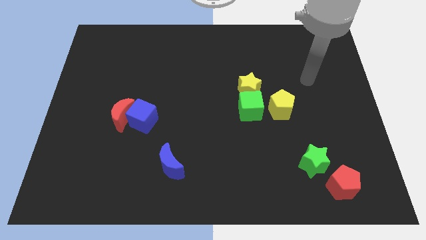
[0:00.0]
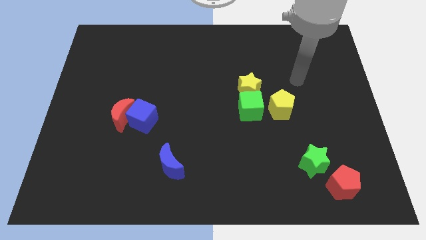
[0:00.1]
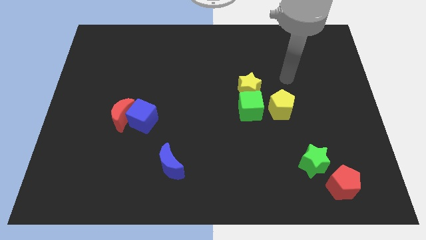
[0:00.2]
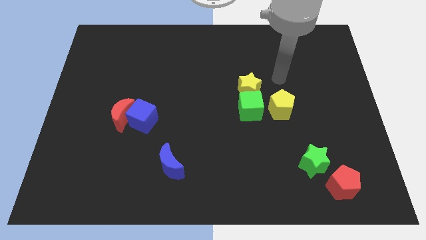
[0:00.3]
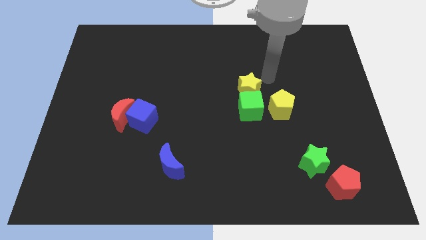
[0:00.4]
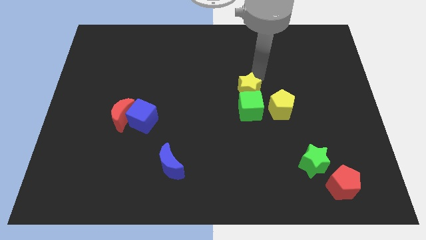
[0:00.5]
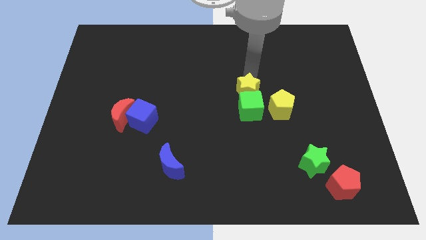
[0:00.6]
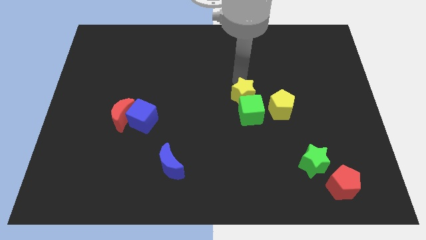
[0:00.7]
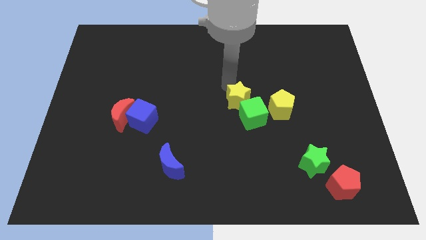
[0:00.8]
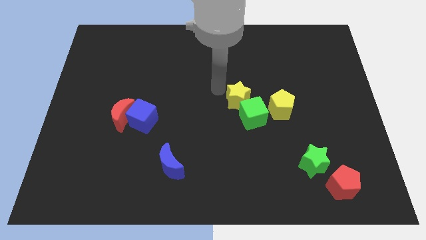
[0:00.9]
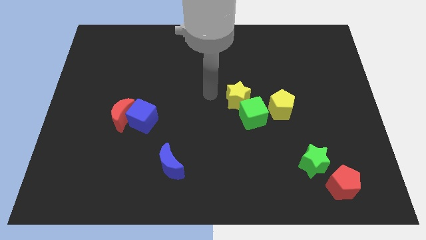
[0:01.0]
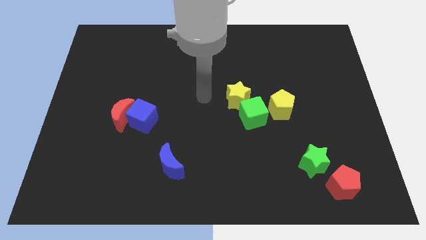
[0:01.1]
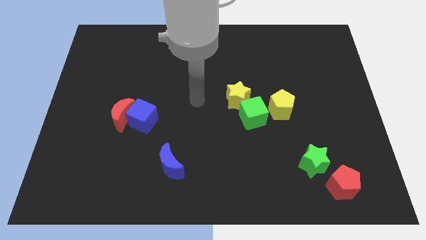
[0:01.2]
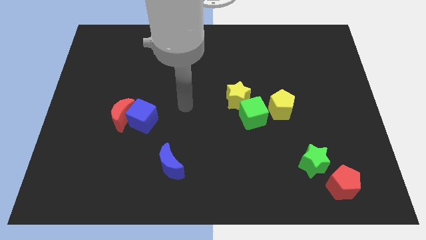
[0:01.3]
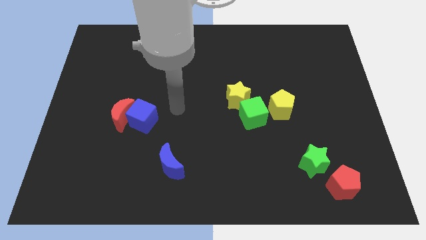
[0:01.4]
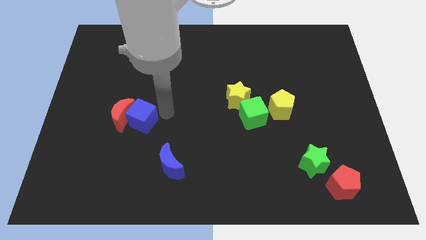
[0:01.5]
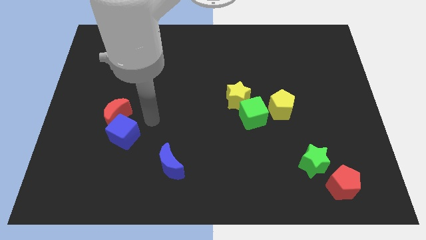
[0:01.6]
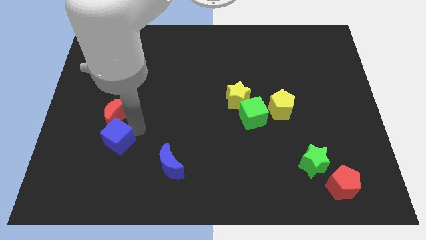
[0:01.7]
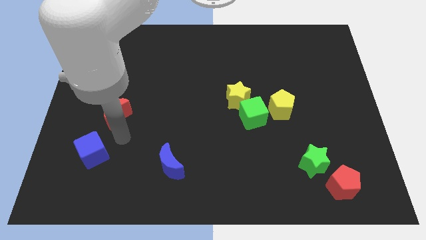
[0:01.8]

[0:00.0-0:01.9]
move the red moon away from the blue cube

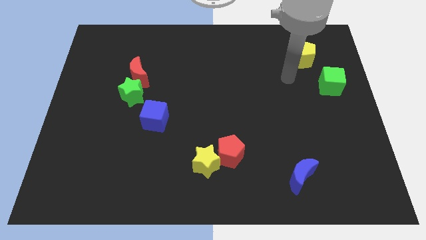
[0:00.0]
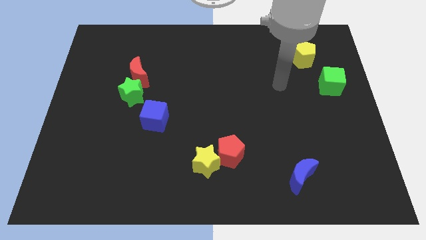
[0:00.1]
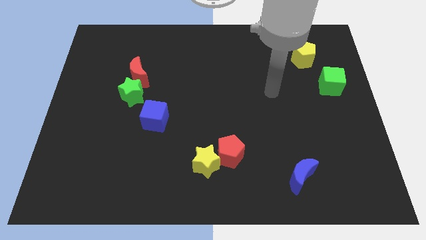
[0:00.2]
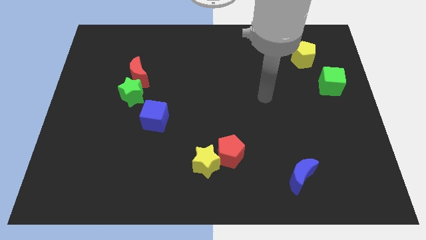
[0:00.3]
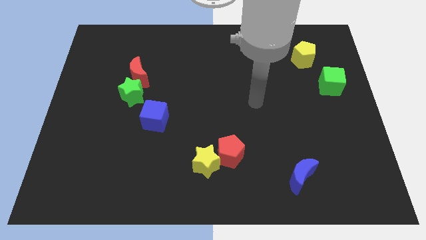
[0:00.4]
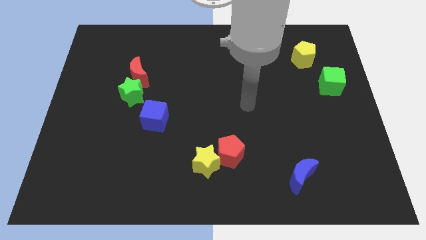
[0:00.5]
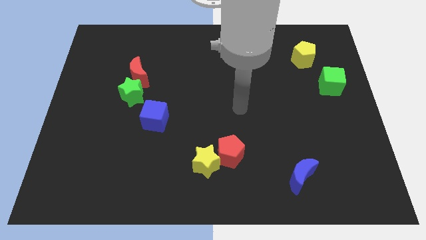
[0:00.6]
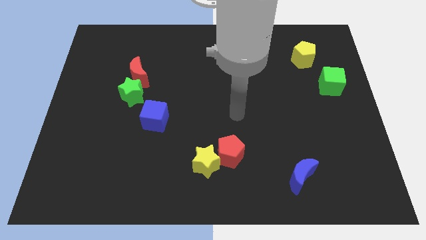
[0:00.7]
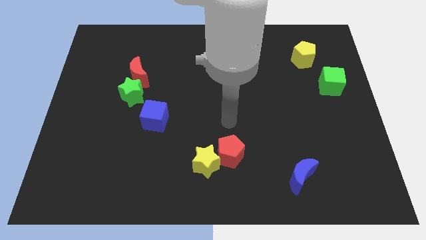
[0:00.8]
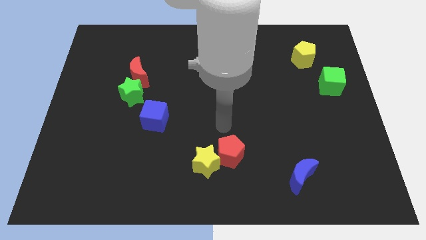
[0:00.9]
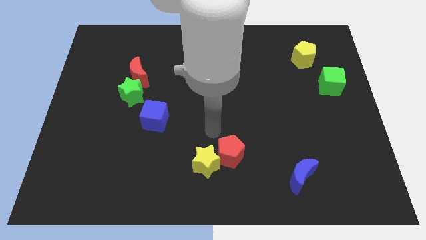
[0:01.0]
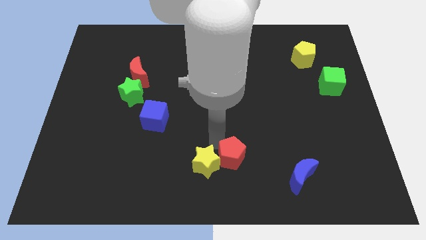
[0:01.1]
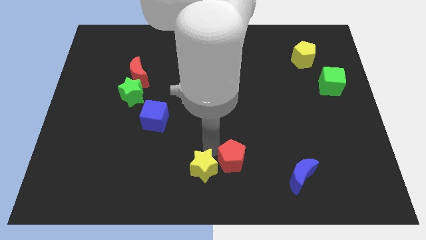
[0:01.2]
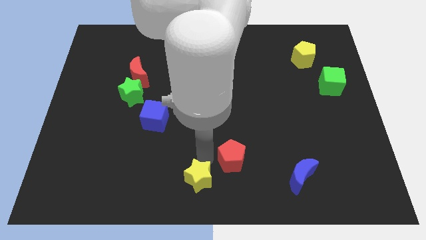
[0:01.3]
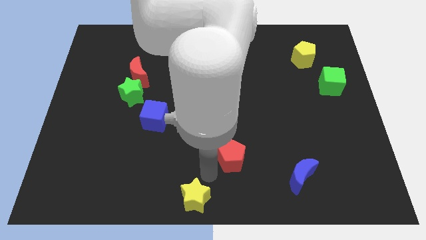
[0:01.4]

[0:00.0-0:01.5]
pull the red pentagon apart from the yellow star

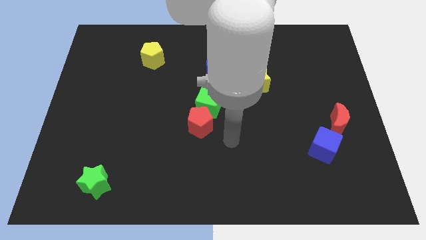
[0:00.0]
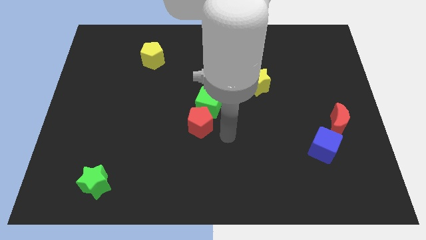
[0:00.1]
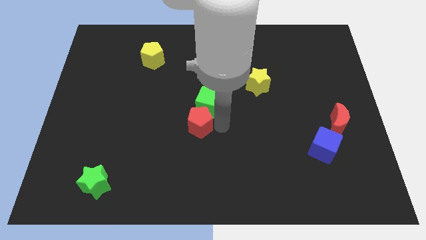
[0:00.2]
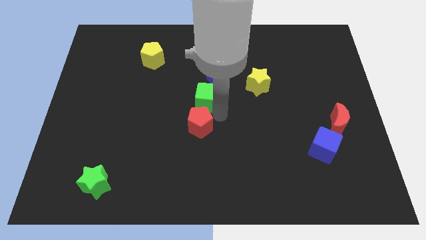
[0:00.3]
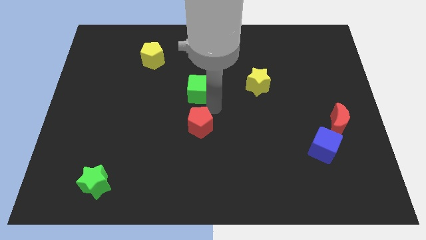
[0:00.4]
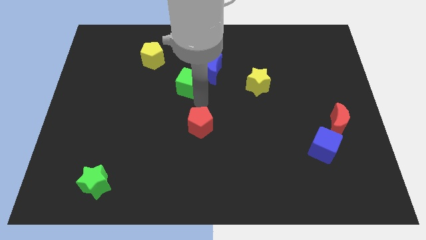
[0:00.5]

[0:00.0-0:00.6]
separate the red pentagon from the green cube

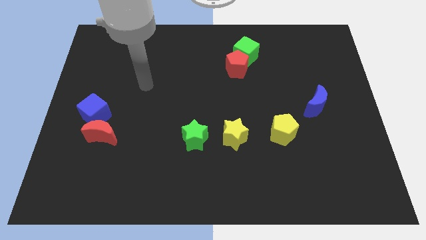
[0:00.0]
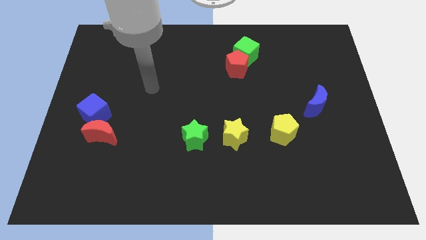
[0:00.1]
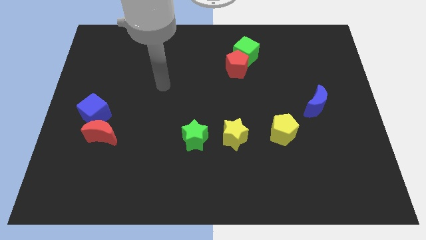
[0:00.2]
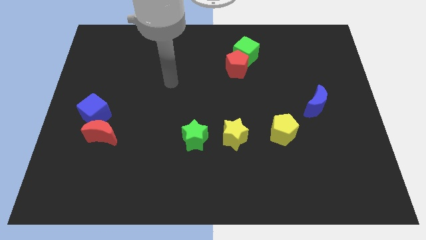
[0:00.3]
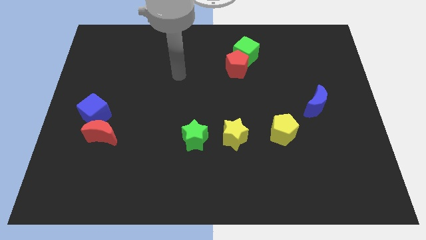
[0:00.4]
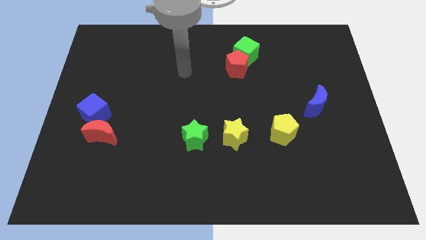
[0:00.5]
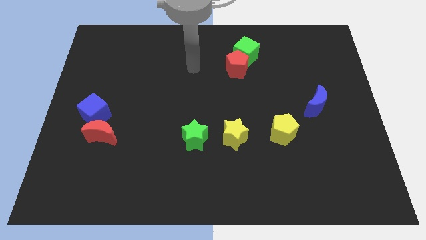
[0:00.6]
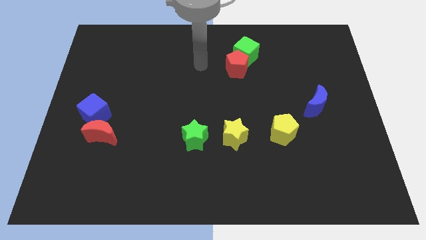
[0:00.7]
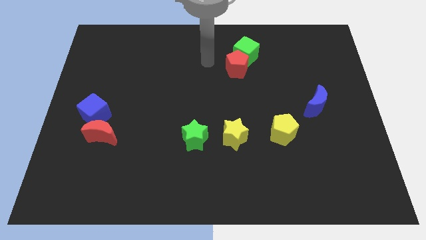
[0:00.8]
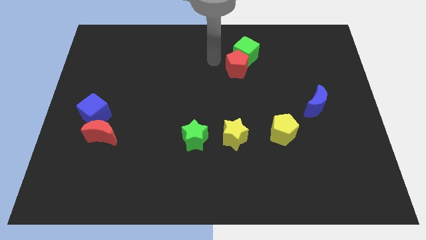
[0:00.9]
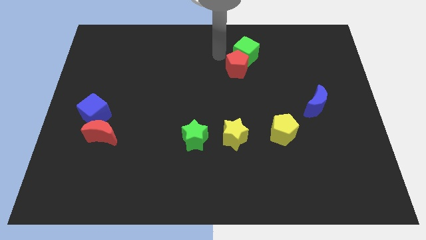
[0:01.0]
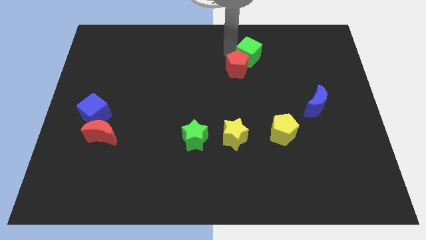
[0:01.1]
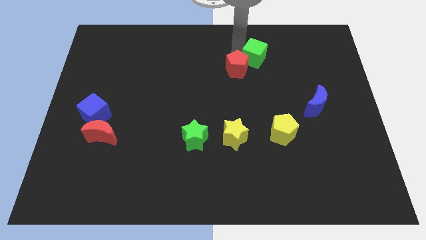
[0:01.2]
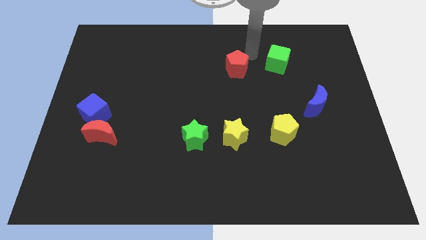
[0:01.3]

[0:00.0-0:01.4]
pull the red pentagon apart from the green cube

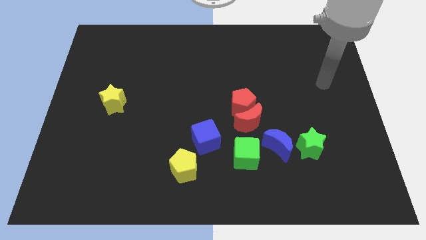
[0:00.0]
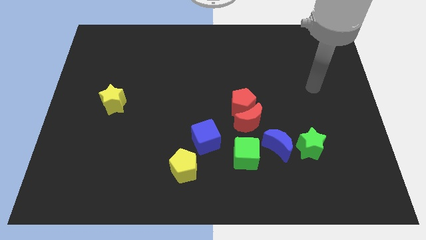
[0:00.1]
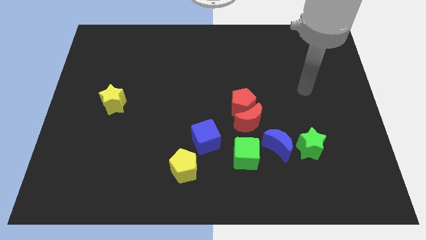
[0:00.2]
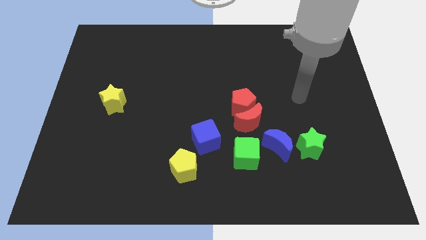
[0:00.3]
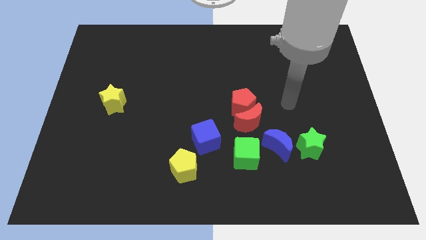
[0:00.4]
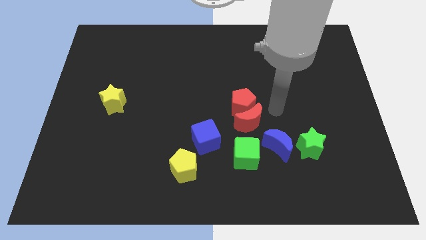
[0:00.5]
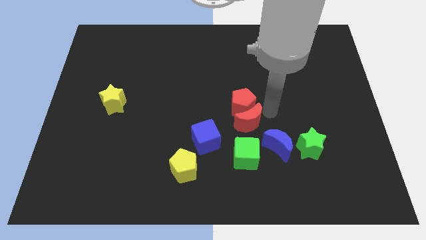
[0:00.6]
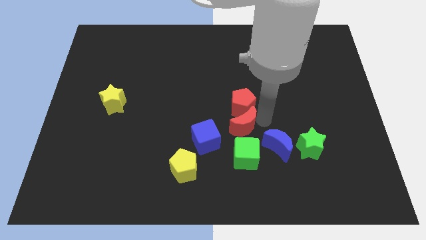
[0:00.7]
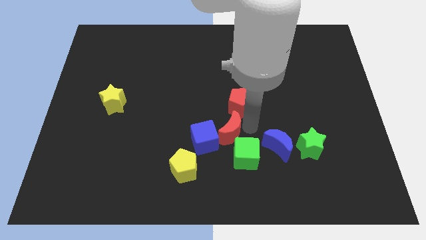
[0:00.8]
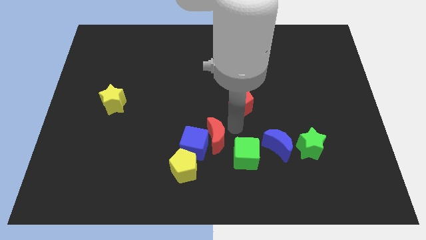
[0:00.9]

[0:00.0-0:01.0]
move the red pentagon away from the red moon

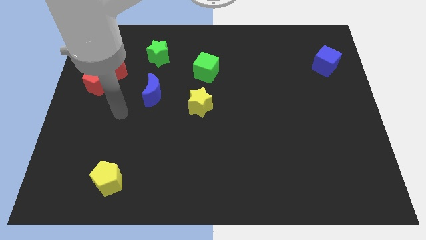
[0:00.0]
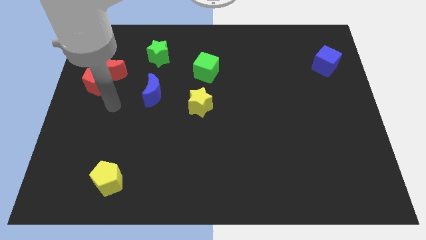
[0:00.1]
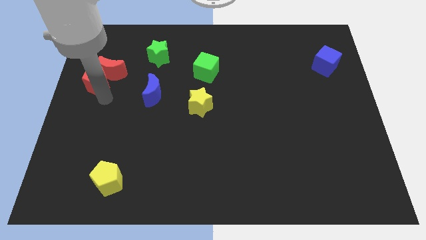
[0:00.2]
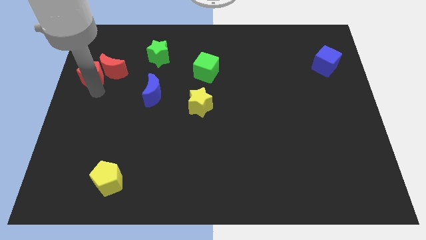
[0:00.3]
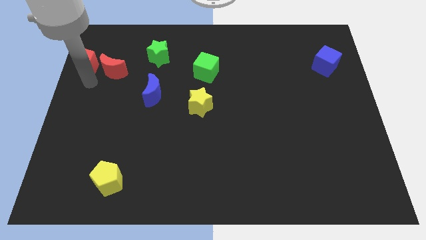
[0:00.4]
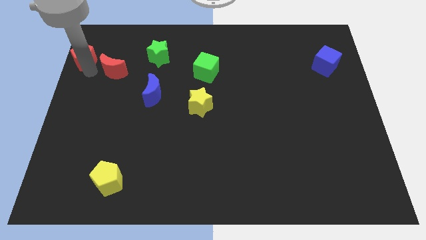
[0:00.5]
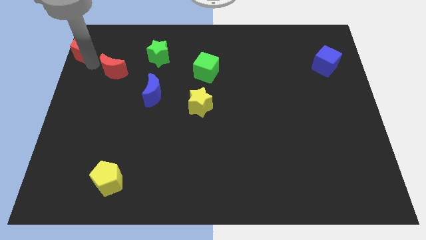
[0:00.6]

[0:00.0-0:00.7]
separate the red moon from the red pentagon

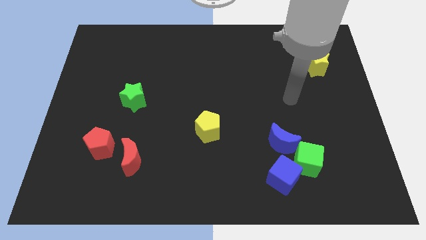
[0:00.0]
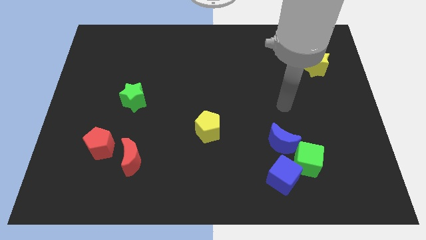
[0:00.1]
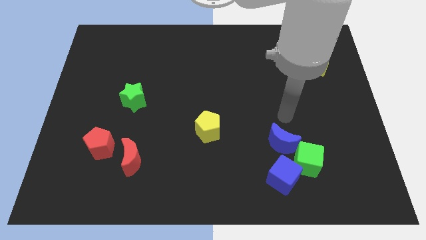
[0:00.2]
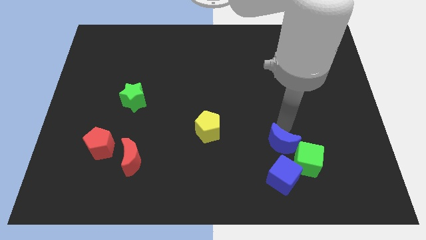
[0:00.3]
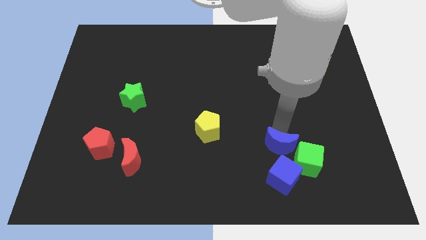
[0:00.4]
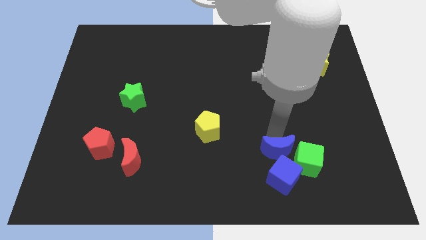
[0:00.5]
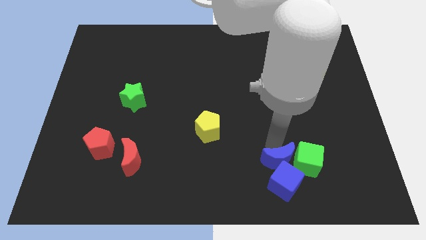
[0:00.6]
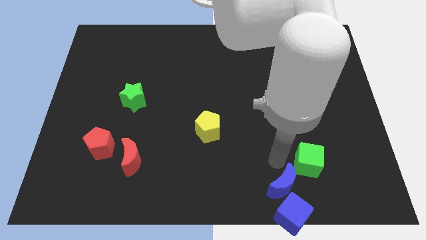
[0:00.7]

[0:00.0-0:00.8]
separate the green cube from the blue cube and blue moon

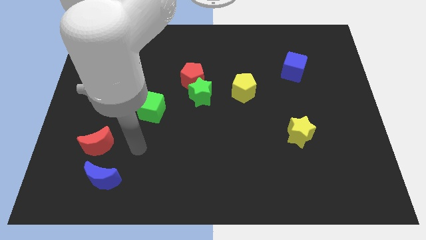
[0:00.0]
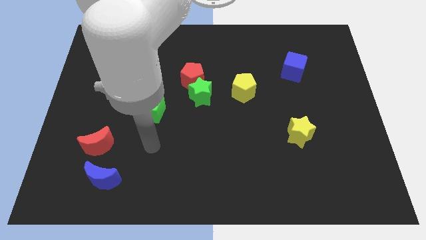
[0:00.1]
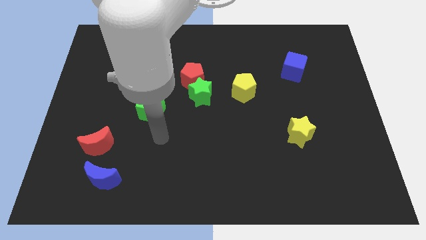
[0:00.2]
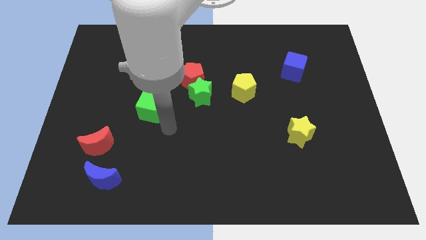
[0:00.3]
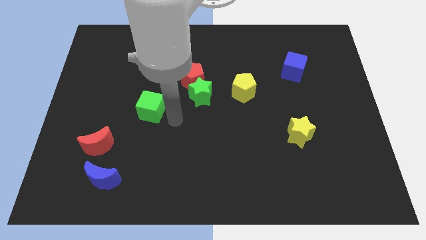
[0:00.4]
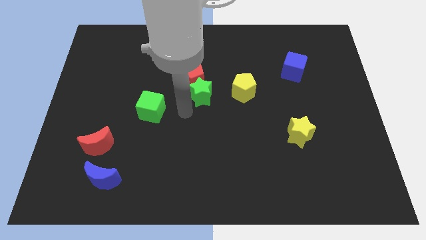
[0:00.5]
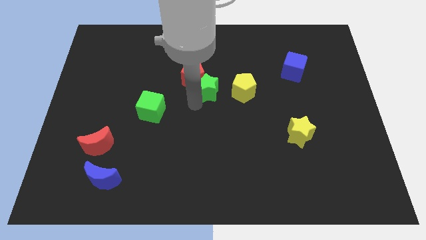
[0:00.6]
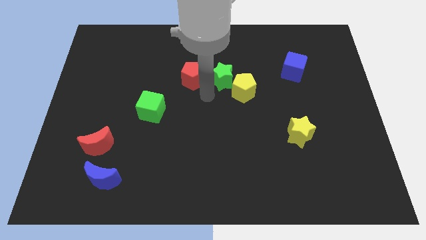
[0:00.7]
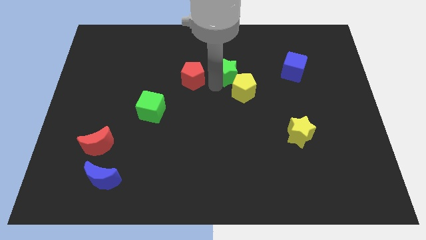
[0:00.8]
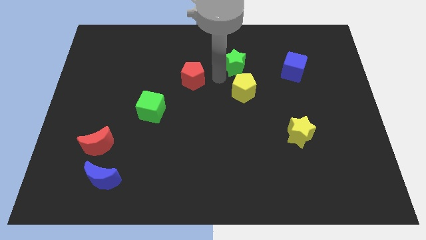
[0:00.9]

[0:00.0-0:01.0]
separate the red pentagon from the green star

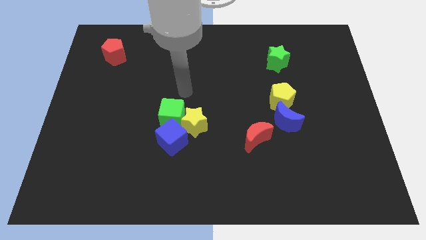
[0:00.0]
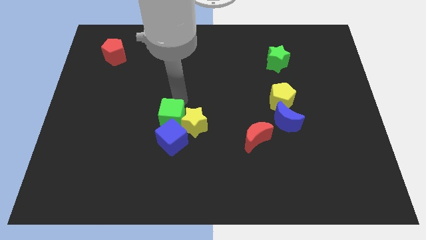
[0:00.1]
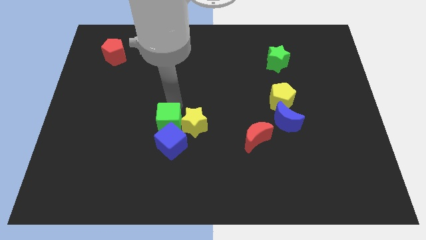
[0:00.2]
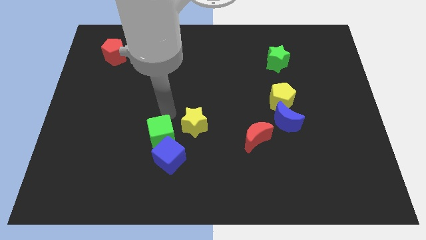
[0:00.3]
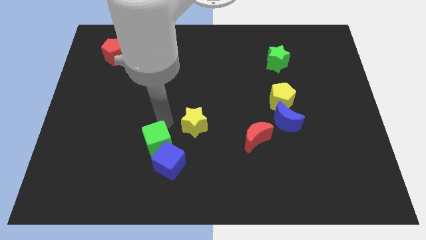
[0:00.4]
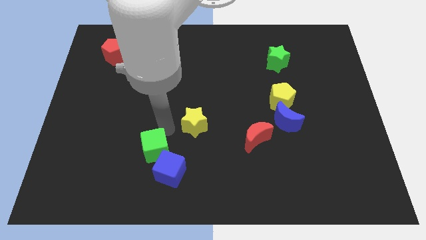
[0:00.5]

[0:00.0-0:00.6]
separate the yellow star from the green cube and blue cube
